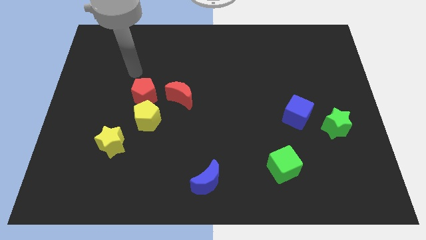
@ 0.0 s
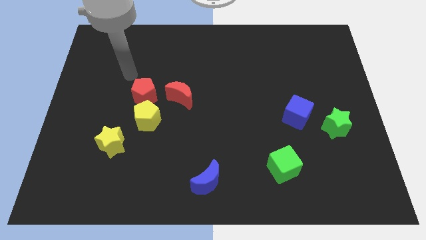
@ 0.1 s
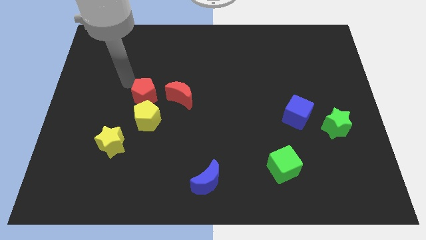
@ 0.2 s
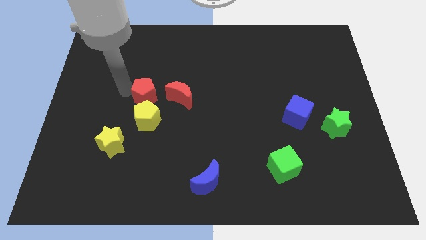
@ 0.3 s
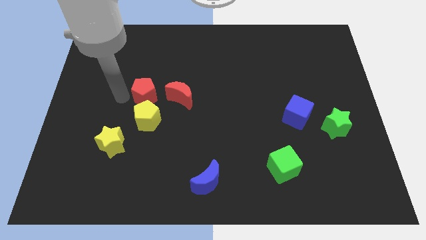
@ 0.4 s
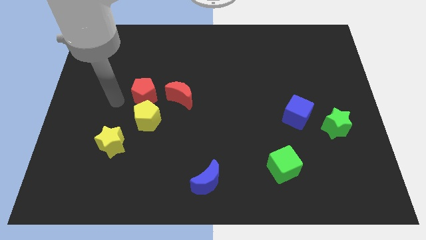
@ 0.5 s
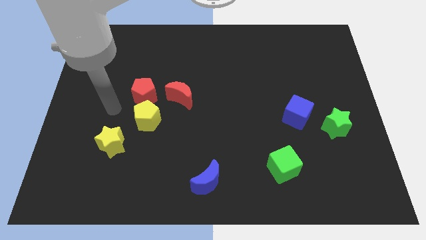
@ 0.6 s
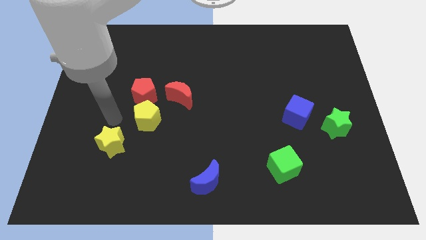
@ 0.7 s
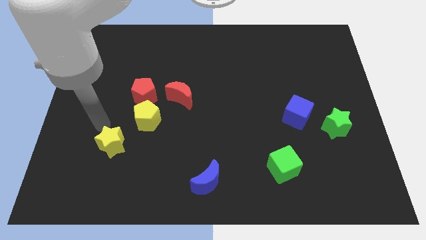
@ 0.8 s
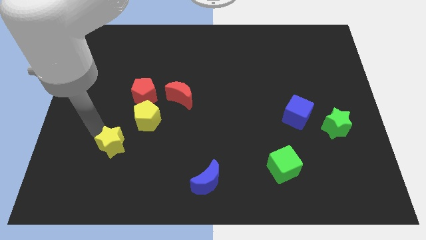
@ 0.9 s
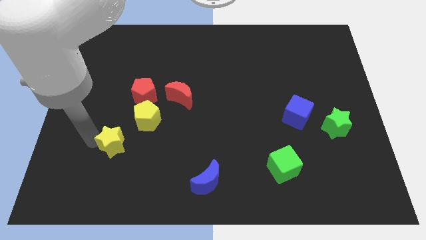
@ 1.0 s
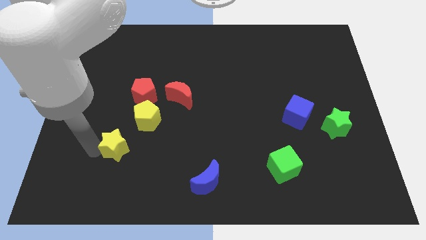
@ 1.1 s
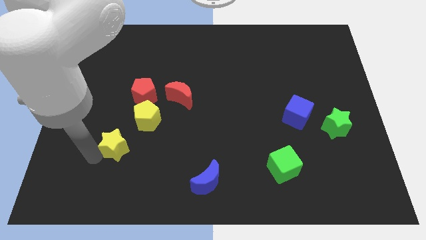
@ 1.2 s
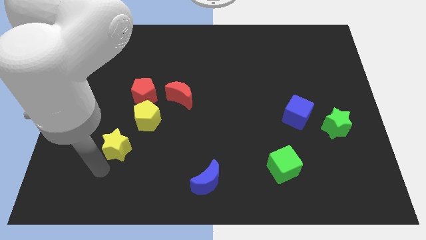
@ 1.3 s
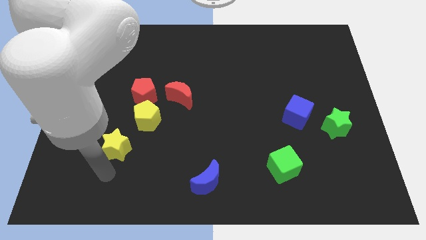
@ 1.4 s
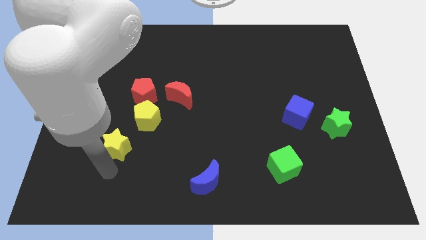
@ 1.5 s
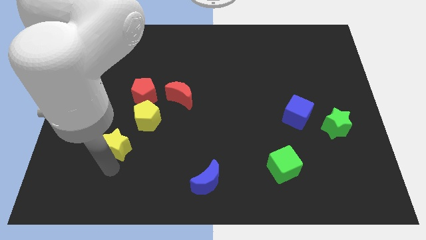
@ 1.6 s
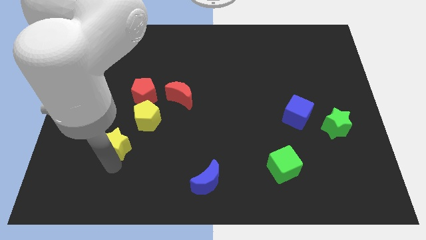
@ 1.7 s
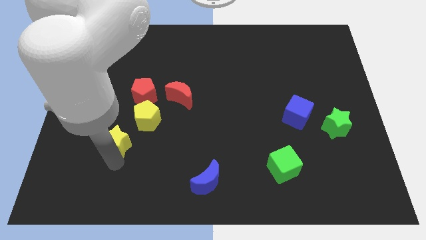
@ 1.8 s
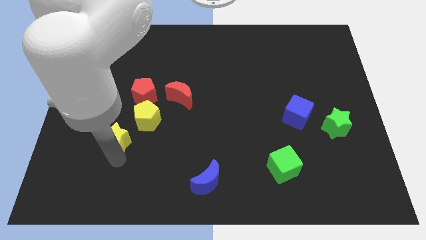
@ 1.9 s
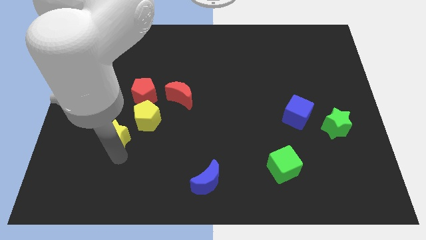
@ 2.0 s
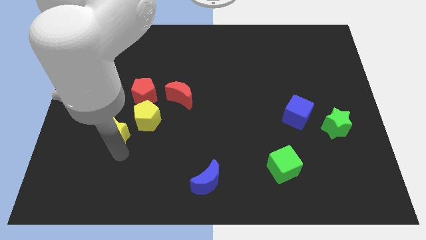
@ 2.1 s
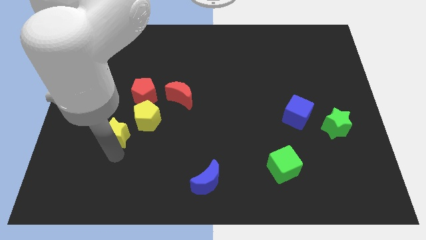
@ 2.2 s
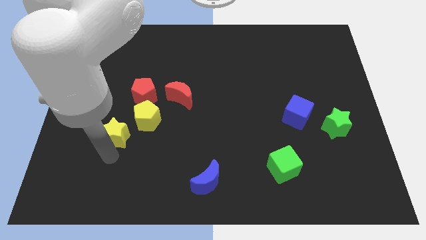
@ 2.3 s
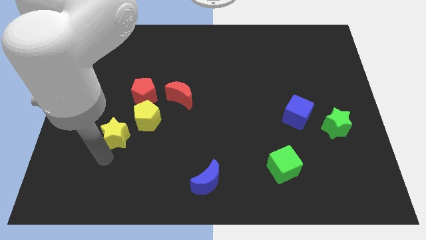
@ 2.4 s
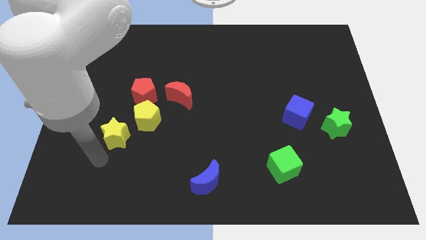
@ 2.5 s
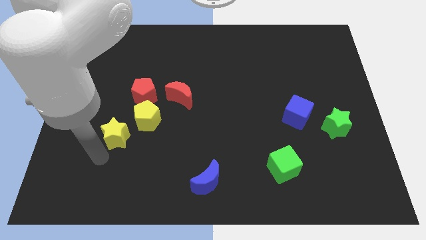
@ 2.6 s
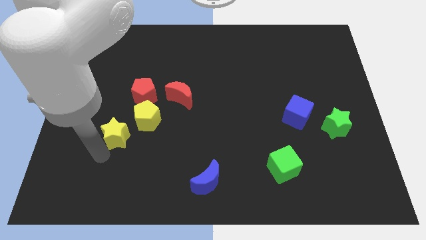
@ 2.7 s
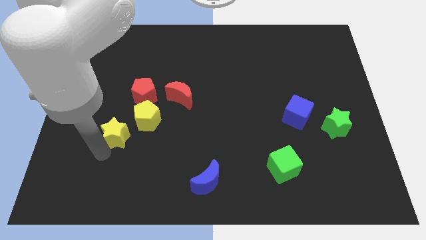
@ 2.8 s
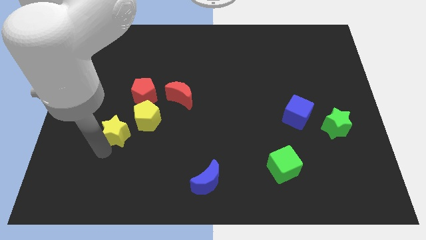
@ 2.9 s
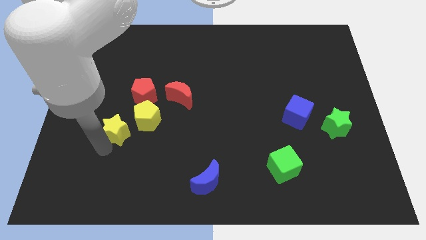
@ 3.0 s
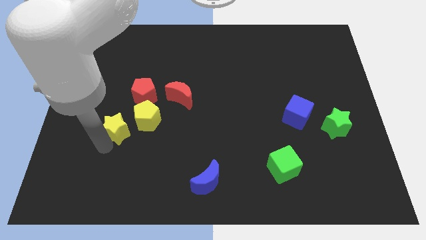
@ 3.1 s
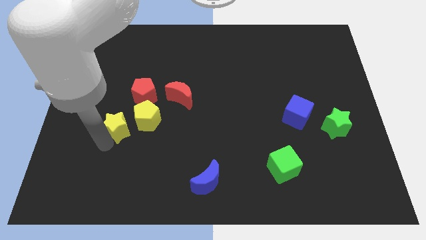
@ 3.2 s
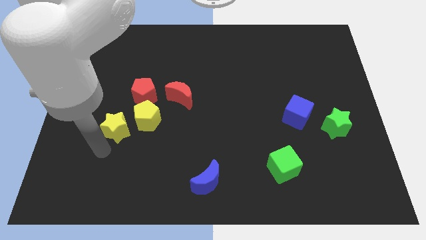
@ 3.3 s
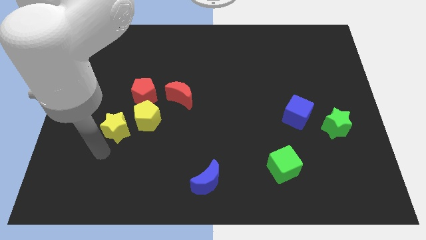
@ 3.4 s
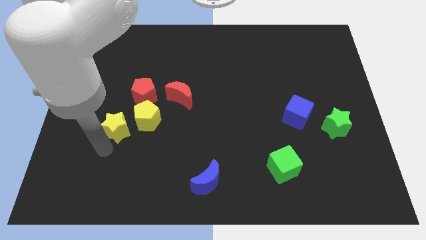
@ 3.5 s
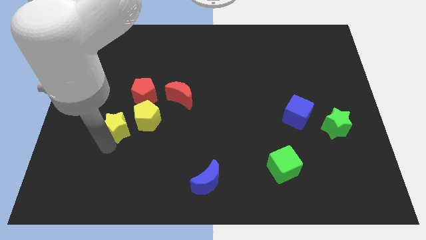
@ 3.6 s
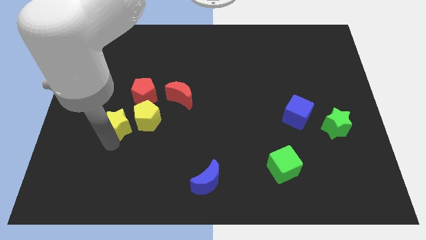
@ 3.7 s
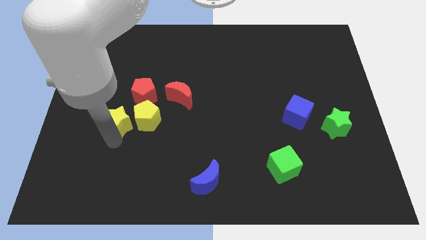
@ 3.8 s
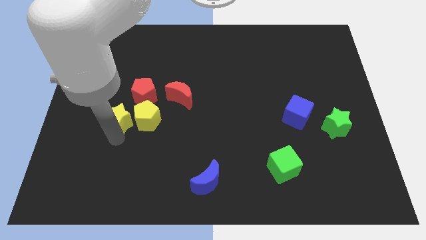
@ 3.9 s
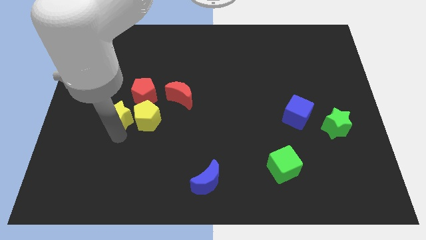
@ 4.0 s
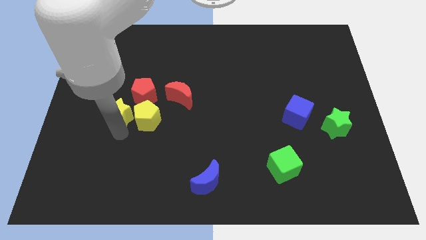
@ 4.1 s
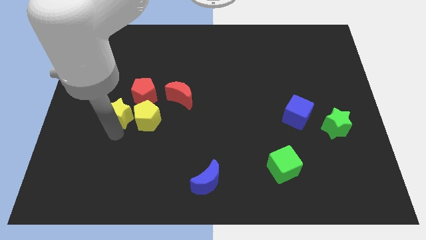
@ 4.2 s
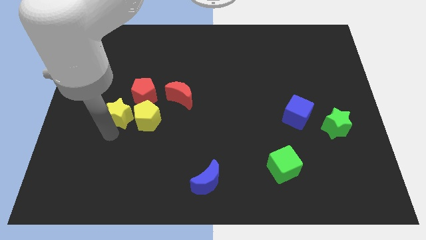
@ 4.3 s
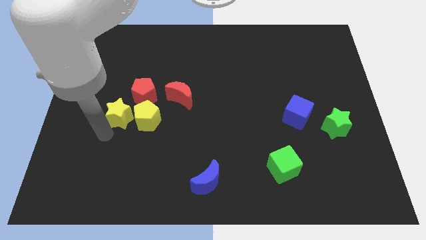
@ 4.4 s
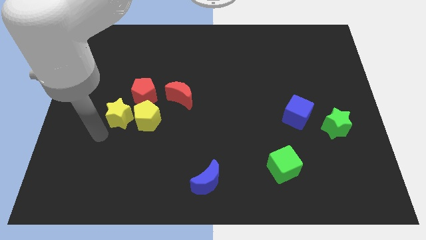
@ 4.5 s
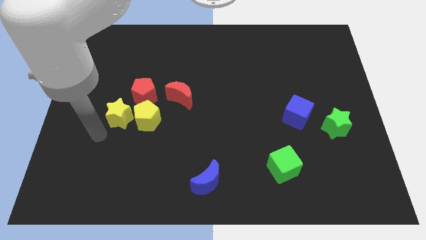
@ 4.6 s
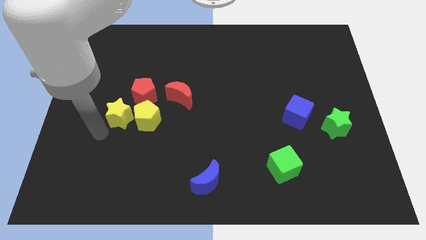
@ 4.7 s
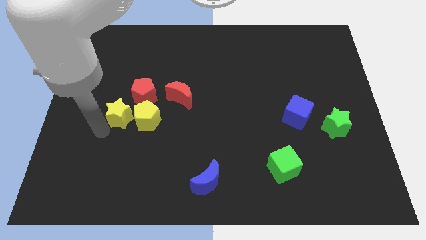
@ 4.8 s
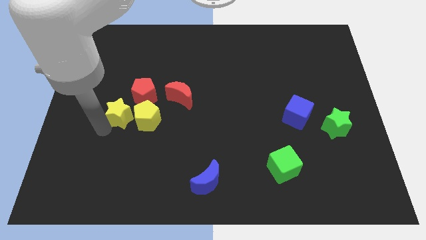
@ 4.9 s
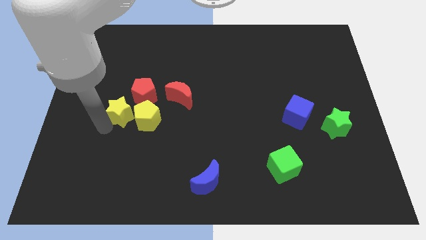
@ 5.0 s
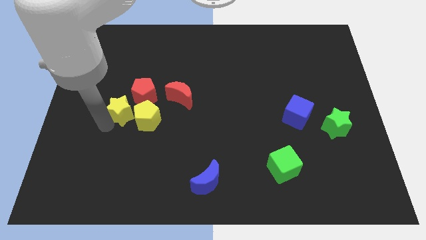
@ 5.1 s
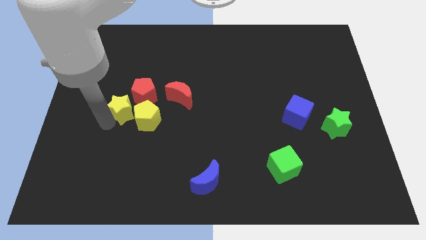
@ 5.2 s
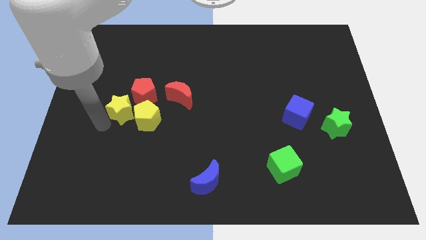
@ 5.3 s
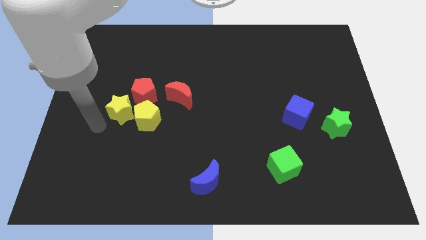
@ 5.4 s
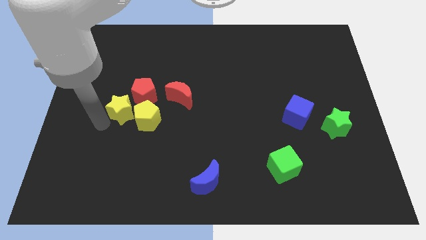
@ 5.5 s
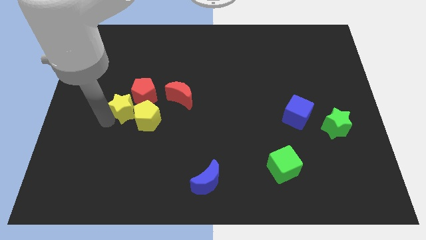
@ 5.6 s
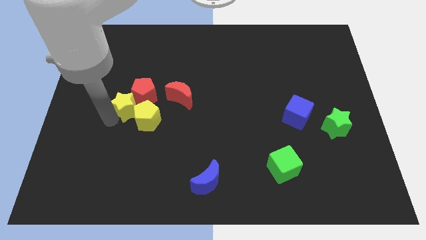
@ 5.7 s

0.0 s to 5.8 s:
slide the yellow star to the red pentagon

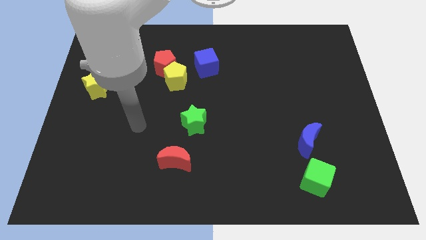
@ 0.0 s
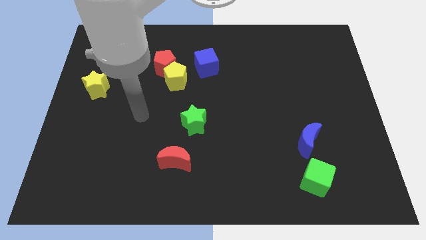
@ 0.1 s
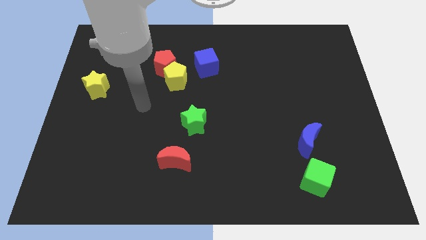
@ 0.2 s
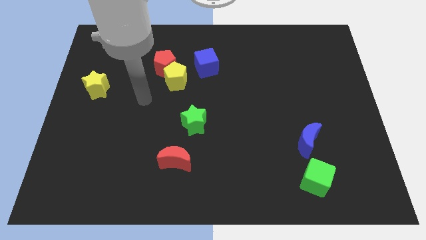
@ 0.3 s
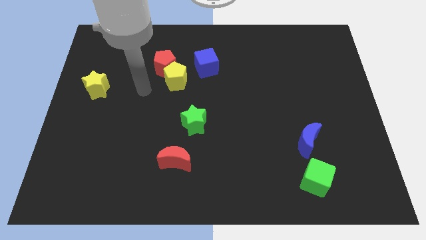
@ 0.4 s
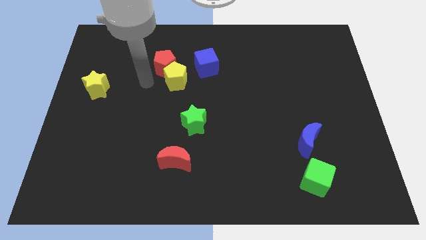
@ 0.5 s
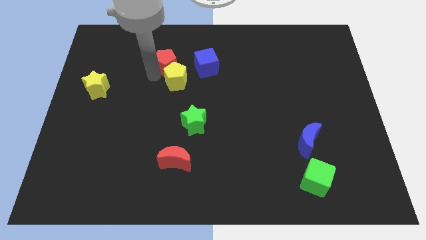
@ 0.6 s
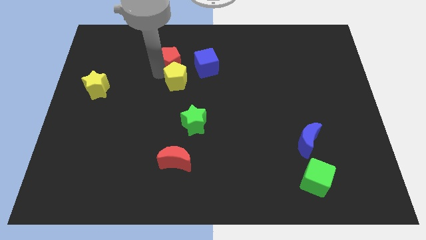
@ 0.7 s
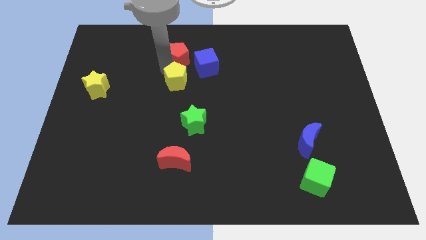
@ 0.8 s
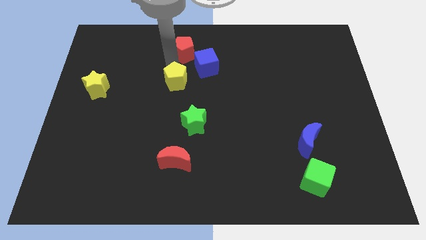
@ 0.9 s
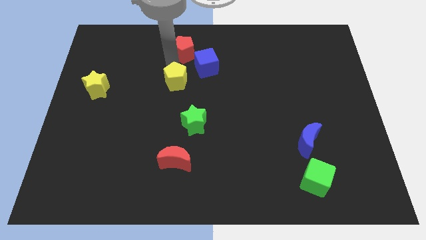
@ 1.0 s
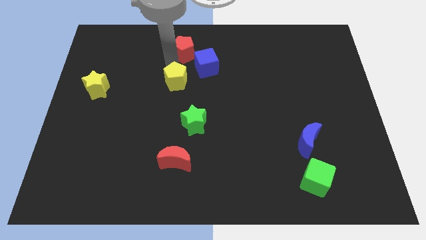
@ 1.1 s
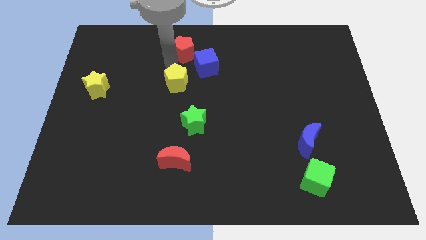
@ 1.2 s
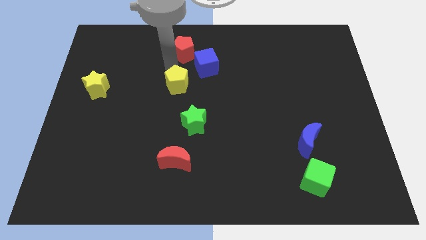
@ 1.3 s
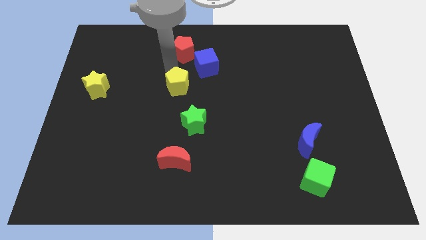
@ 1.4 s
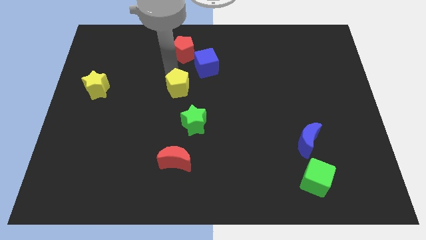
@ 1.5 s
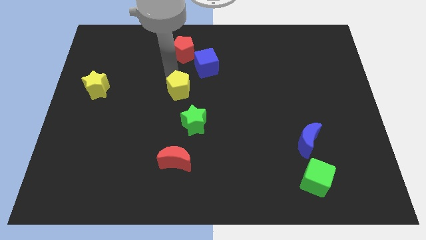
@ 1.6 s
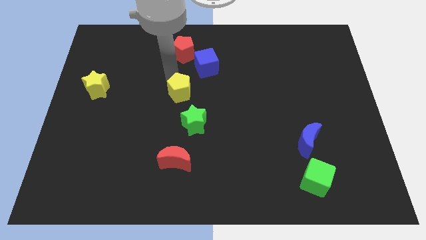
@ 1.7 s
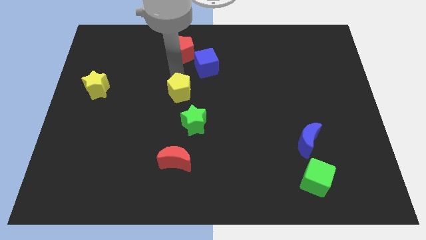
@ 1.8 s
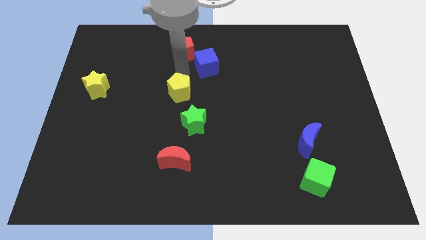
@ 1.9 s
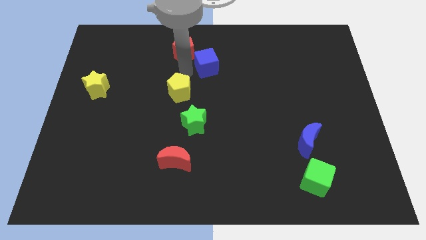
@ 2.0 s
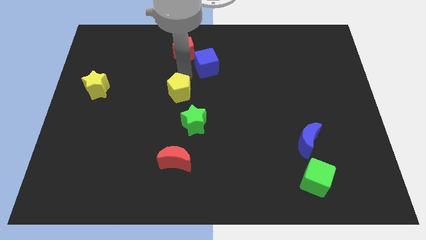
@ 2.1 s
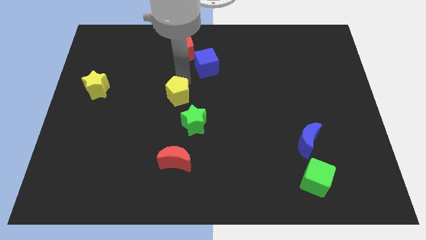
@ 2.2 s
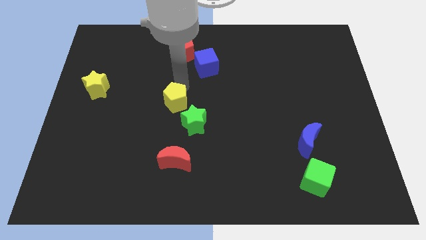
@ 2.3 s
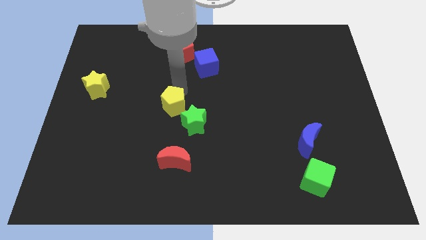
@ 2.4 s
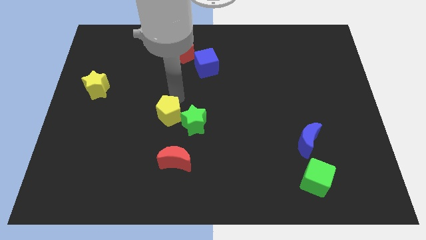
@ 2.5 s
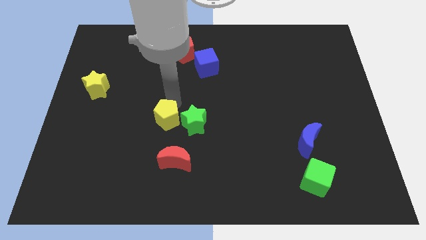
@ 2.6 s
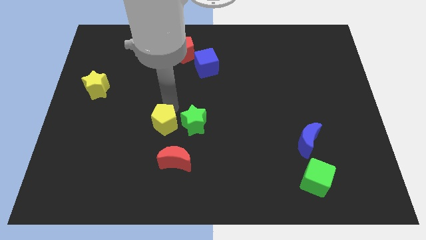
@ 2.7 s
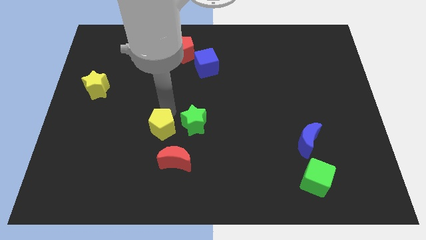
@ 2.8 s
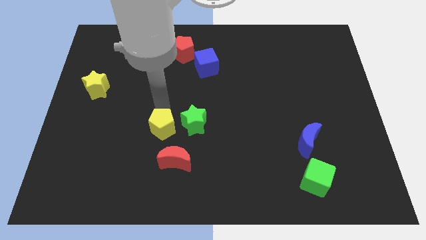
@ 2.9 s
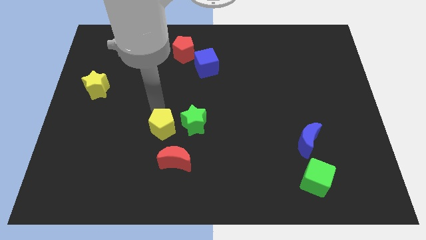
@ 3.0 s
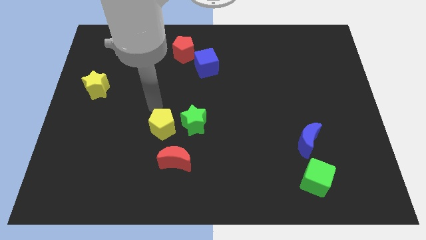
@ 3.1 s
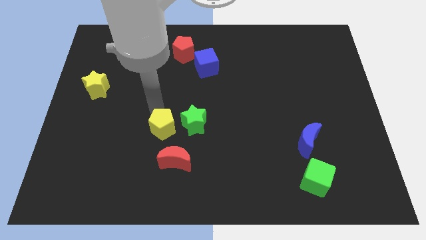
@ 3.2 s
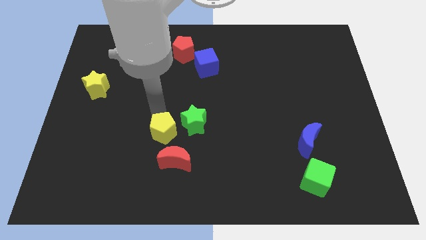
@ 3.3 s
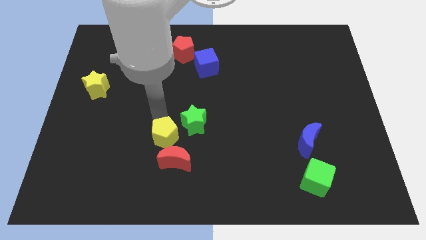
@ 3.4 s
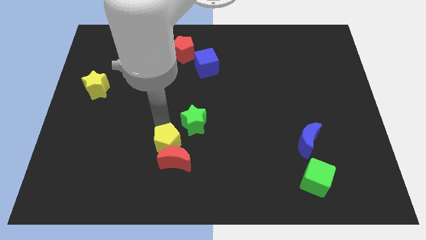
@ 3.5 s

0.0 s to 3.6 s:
move the yellow pentagon close to the red moon
